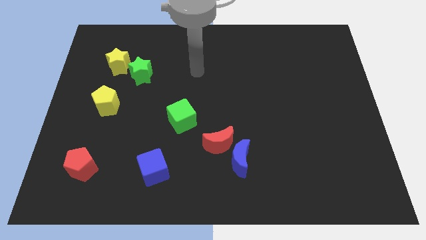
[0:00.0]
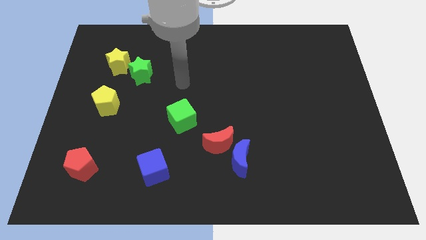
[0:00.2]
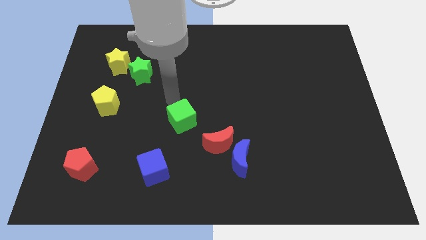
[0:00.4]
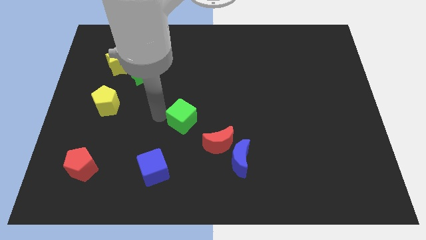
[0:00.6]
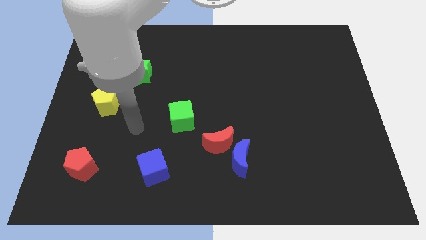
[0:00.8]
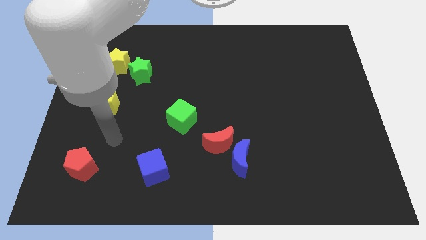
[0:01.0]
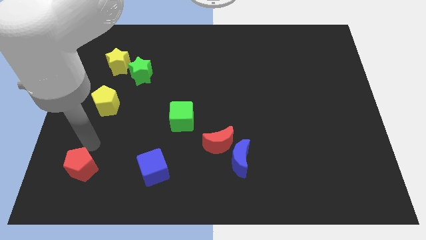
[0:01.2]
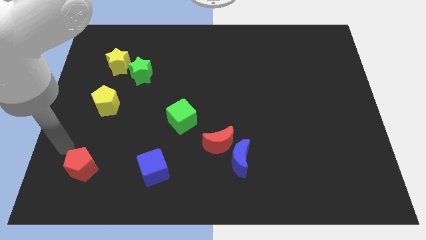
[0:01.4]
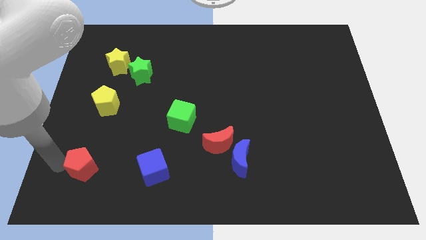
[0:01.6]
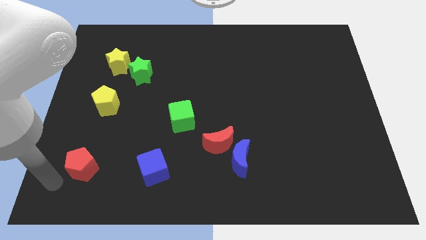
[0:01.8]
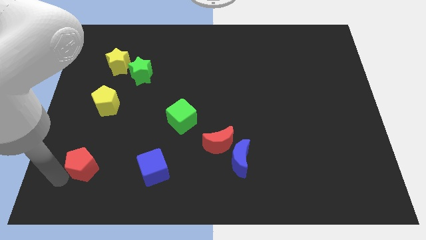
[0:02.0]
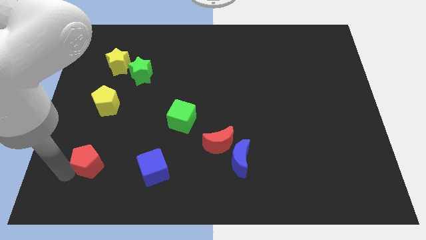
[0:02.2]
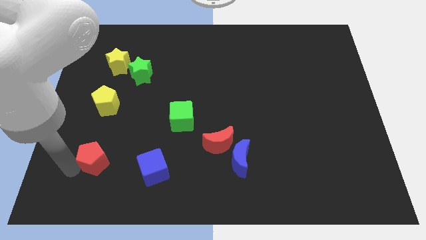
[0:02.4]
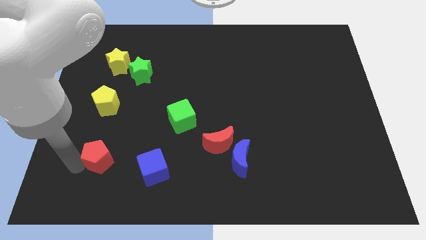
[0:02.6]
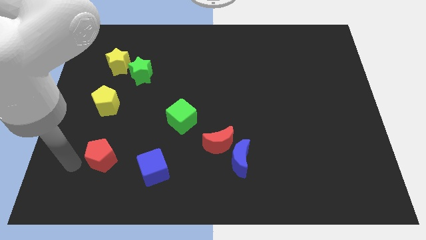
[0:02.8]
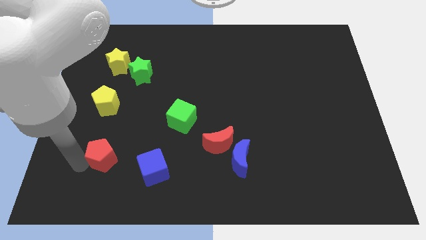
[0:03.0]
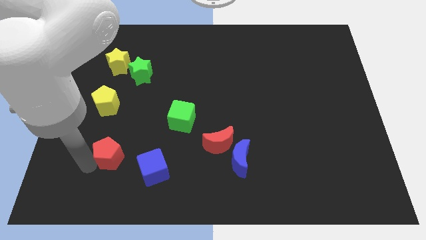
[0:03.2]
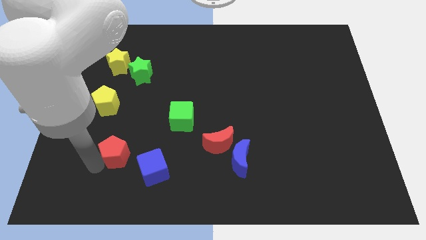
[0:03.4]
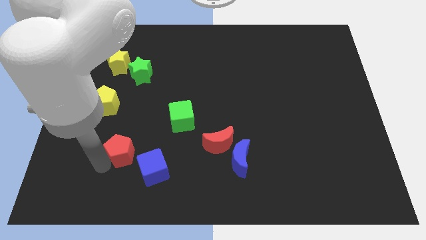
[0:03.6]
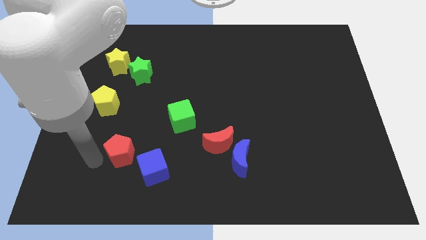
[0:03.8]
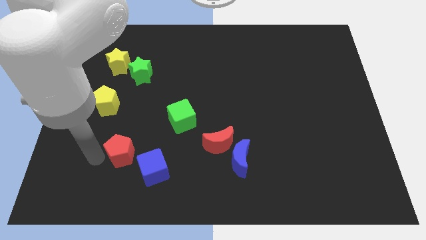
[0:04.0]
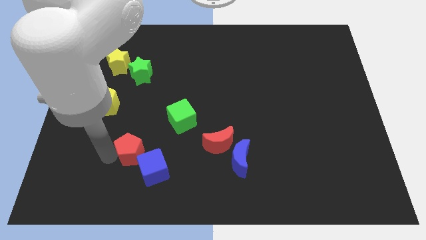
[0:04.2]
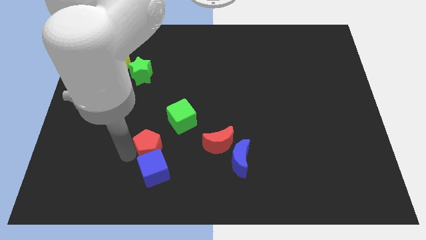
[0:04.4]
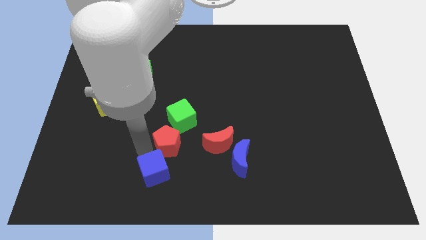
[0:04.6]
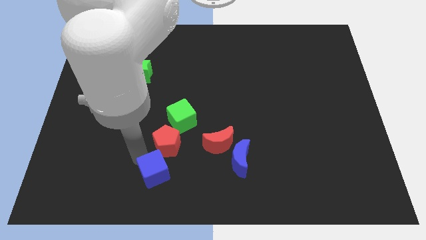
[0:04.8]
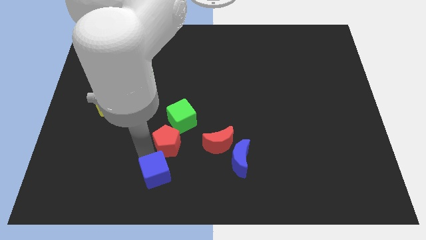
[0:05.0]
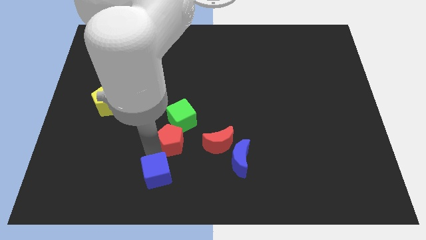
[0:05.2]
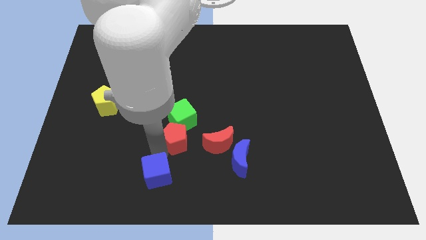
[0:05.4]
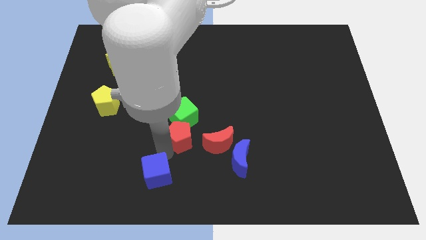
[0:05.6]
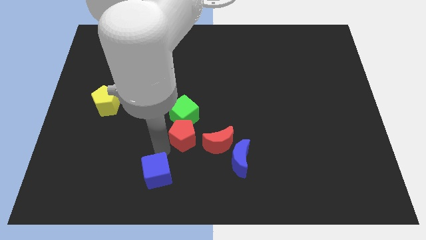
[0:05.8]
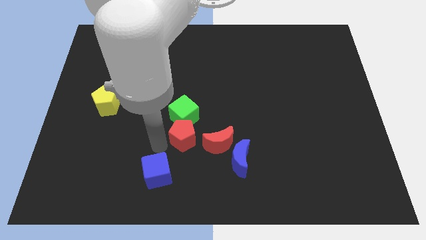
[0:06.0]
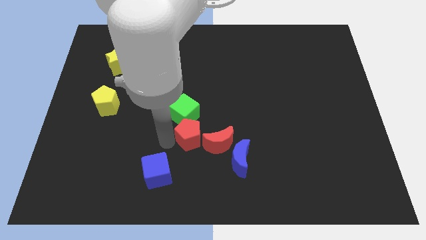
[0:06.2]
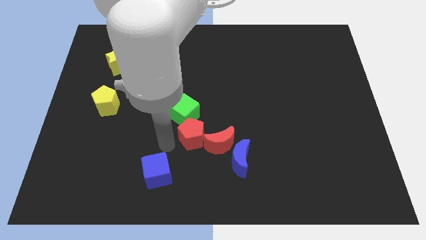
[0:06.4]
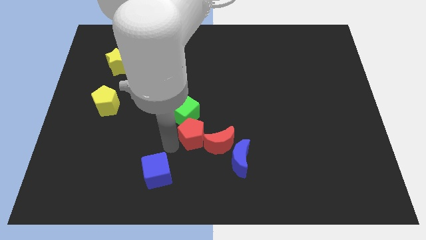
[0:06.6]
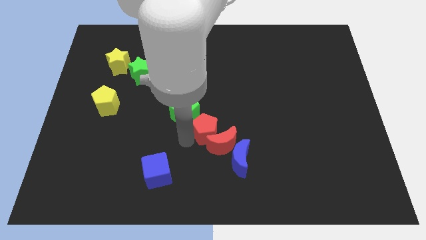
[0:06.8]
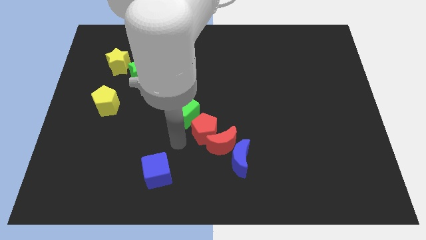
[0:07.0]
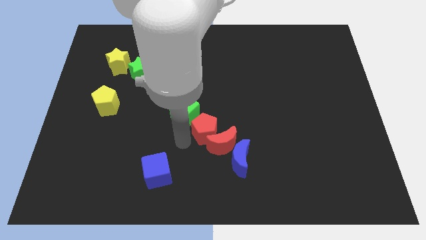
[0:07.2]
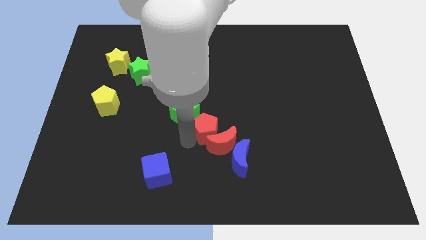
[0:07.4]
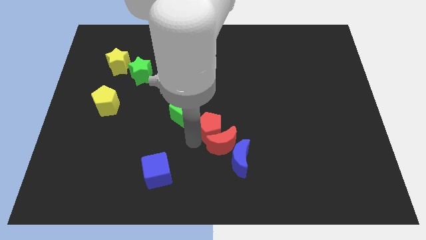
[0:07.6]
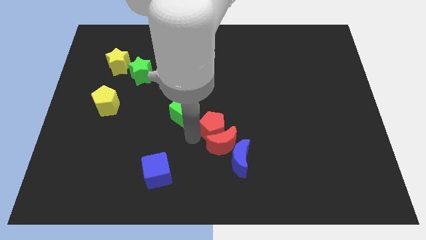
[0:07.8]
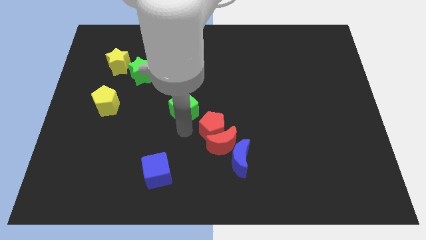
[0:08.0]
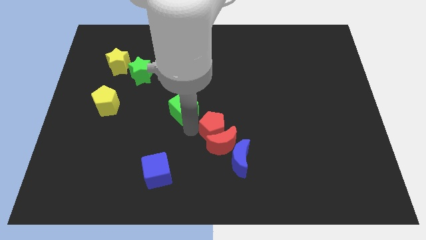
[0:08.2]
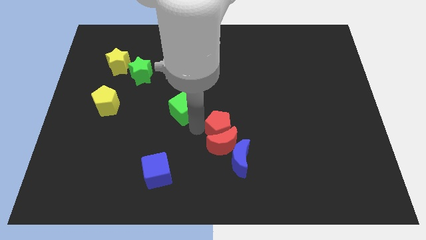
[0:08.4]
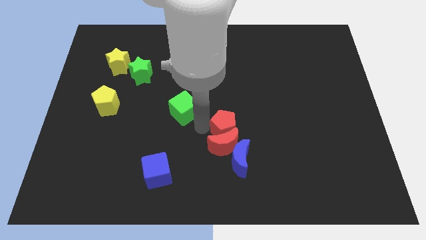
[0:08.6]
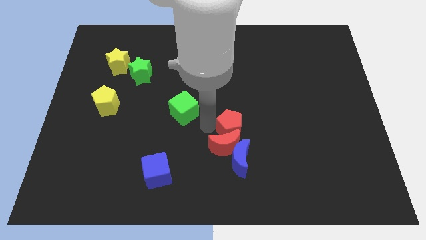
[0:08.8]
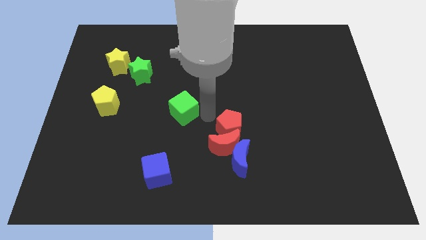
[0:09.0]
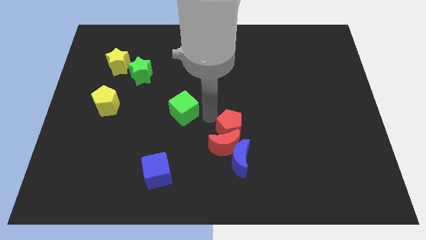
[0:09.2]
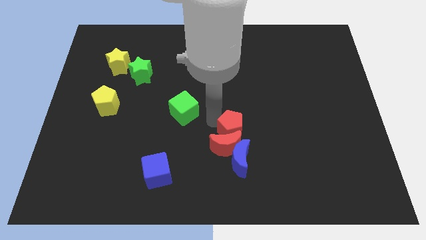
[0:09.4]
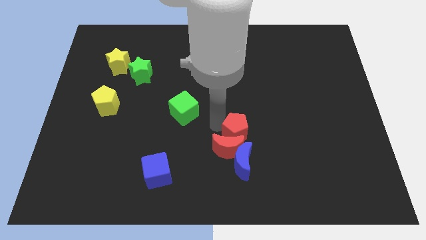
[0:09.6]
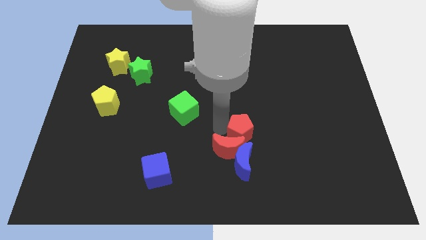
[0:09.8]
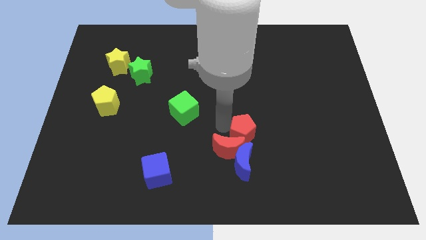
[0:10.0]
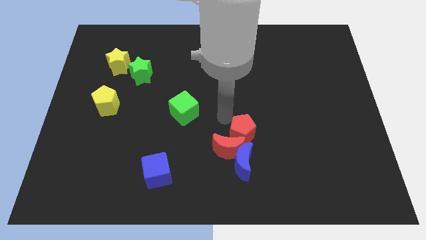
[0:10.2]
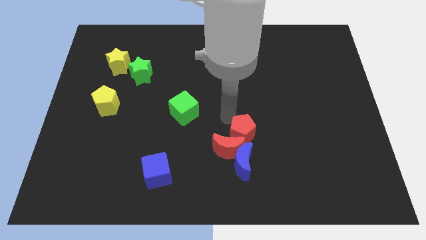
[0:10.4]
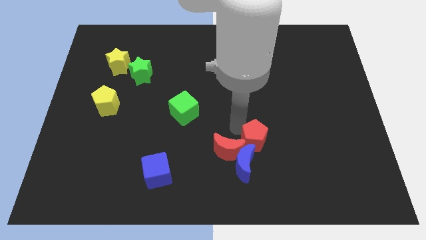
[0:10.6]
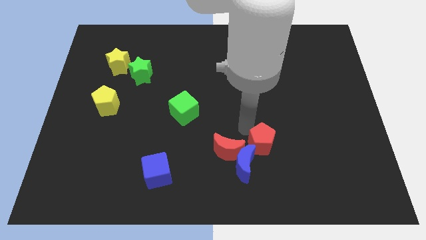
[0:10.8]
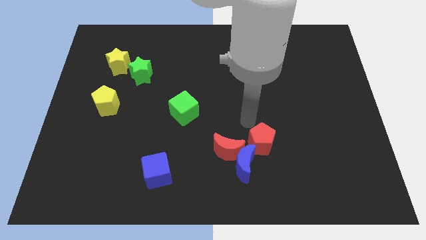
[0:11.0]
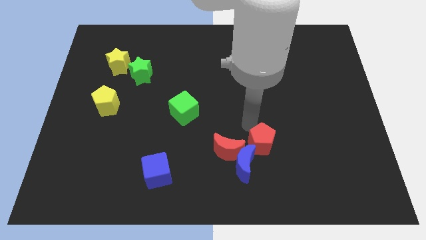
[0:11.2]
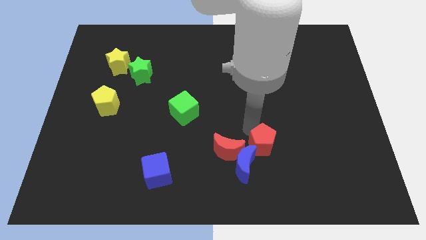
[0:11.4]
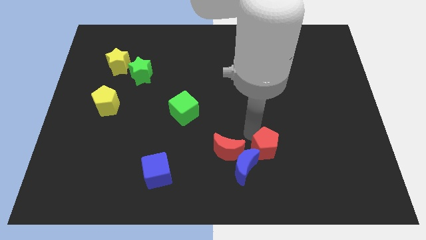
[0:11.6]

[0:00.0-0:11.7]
push the red pentagon to the right side of the blue moon

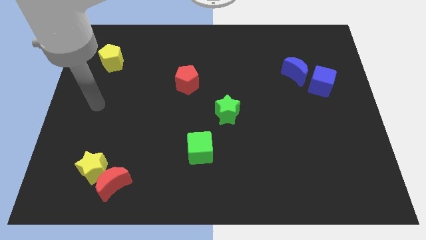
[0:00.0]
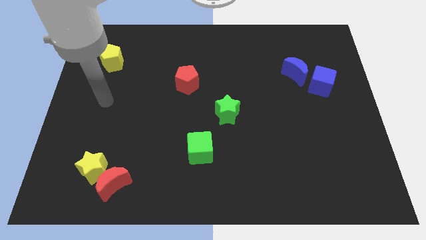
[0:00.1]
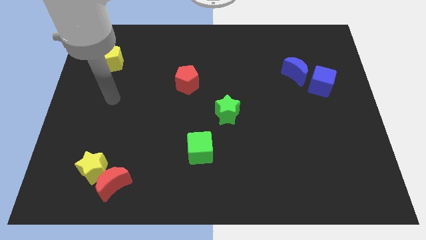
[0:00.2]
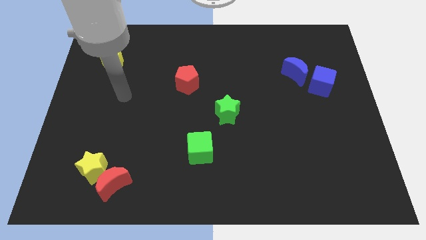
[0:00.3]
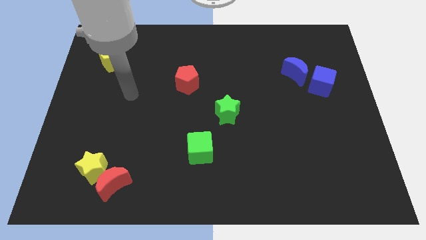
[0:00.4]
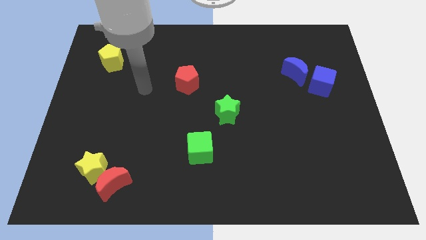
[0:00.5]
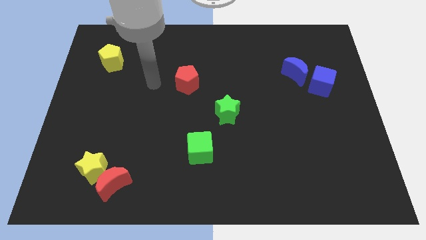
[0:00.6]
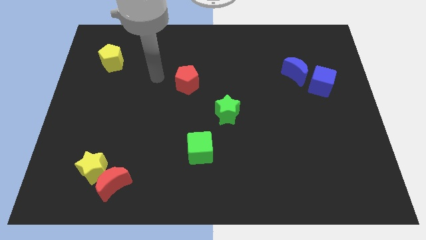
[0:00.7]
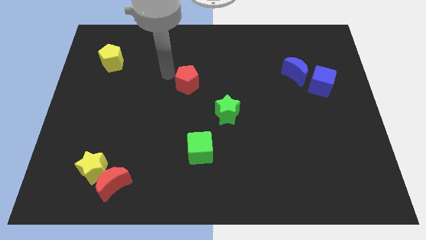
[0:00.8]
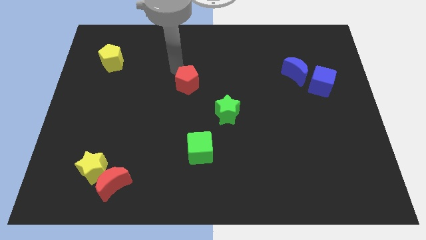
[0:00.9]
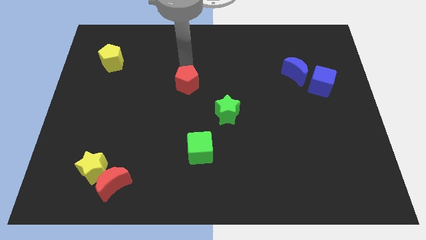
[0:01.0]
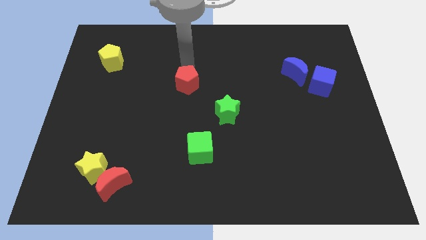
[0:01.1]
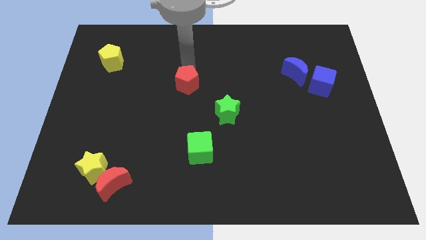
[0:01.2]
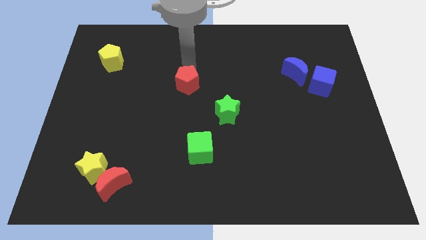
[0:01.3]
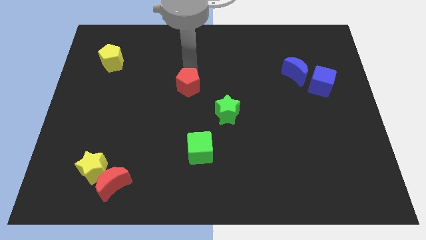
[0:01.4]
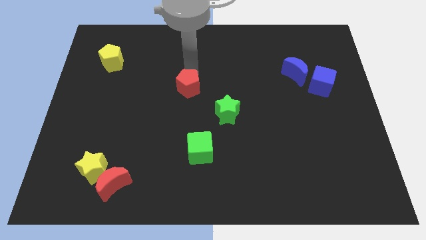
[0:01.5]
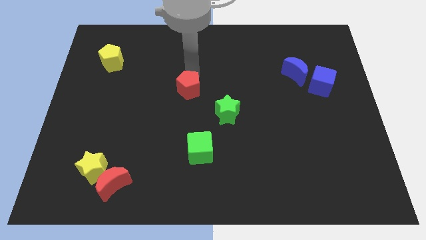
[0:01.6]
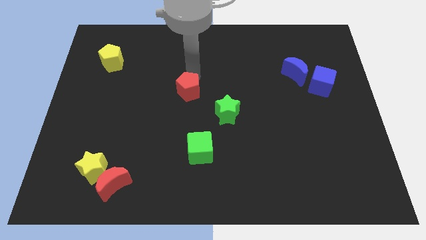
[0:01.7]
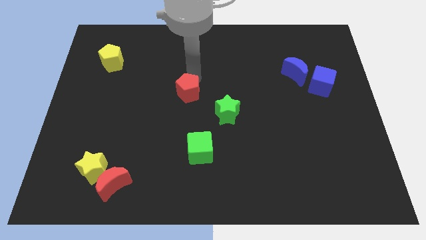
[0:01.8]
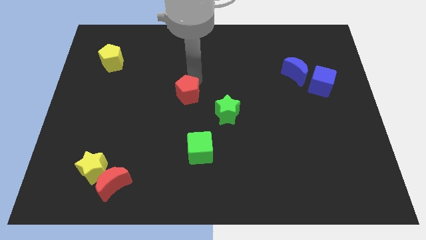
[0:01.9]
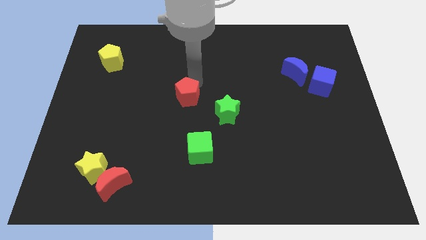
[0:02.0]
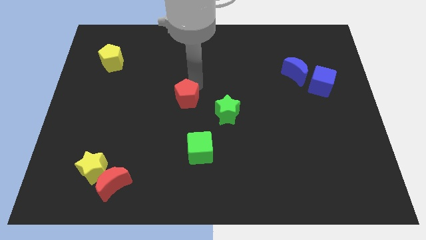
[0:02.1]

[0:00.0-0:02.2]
push the red pentagon to the left of the green star
